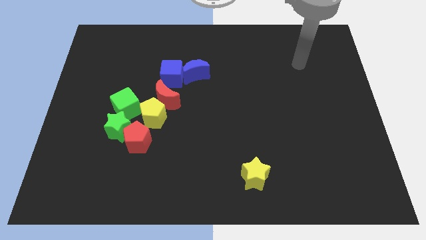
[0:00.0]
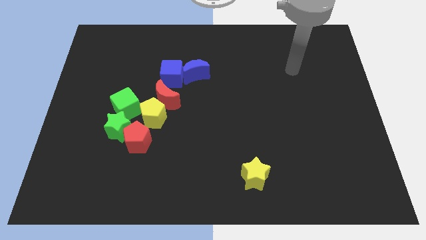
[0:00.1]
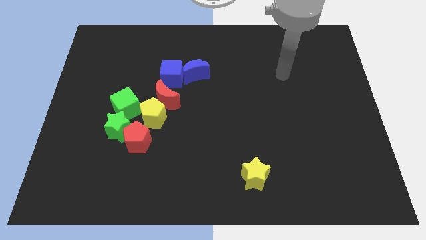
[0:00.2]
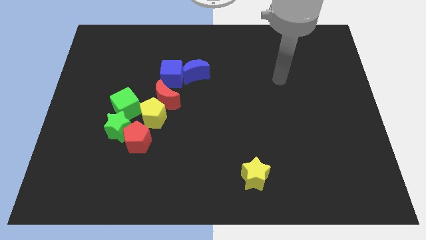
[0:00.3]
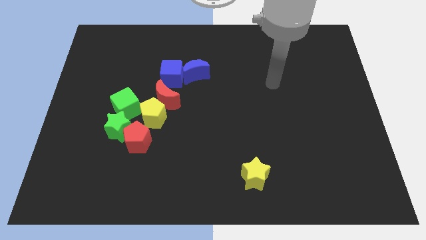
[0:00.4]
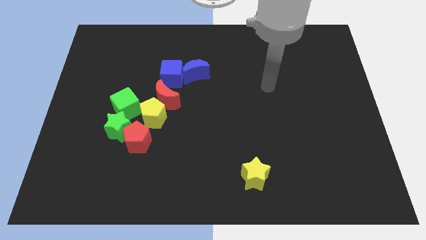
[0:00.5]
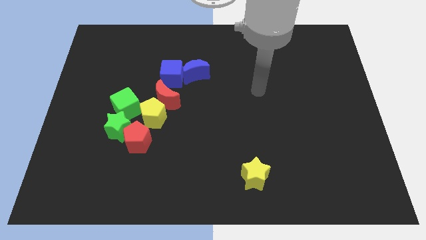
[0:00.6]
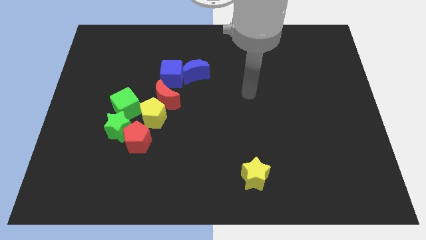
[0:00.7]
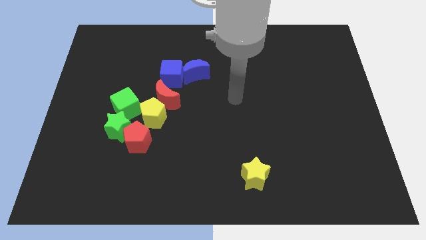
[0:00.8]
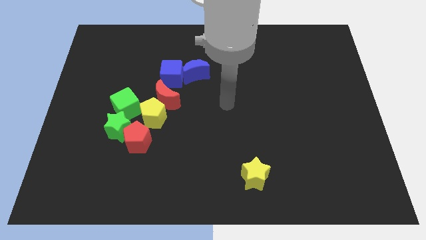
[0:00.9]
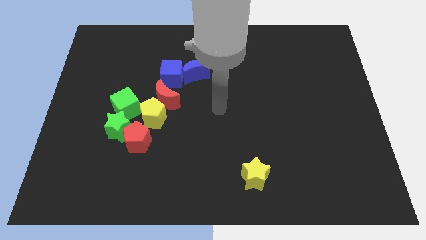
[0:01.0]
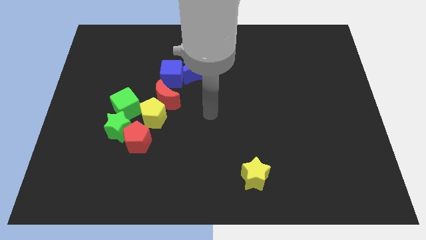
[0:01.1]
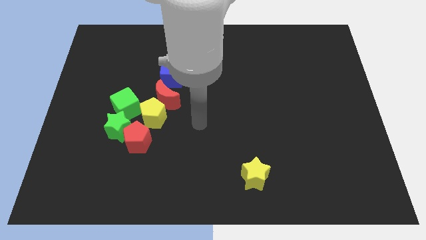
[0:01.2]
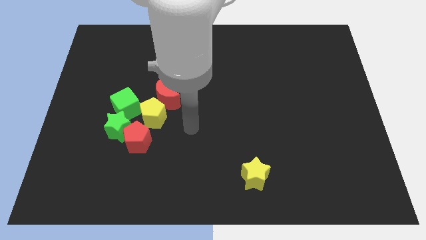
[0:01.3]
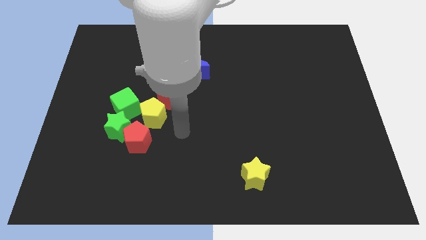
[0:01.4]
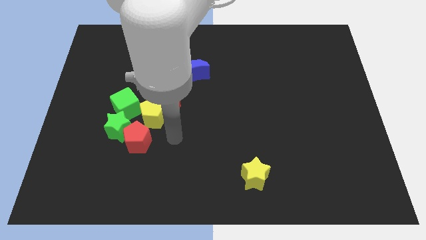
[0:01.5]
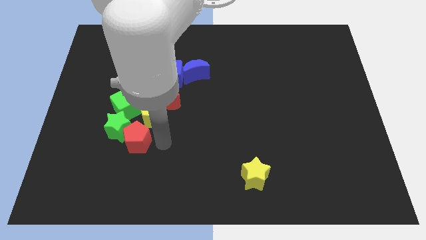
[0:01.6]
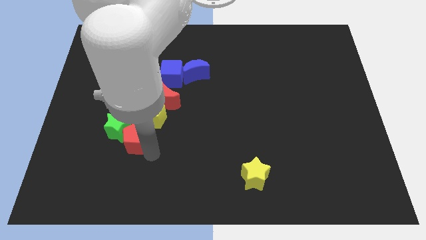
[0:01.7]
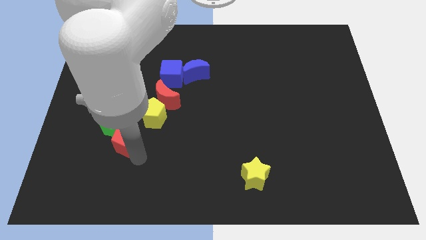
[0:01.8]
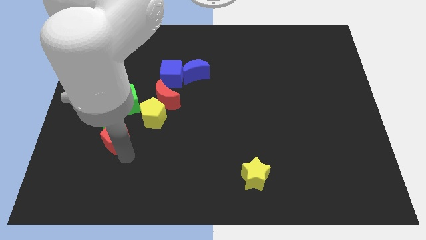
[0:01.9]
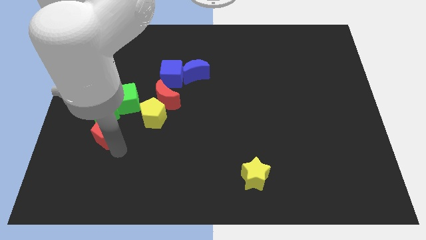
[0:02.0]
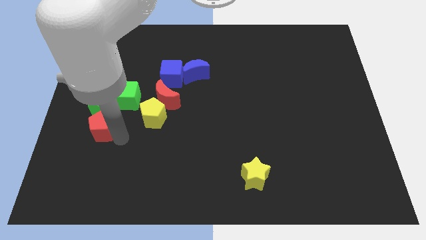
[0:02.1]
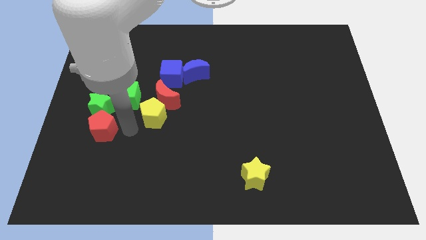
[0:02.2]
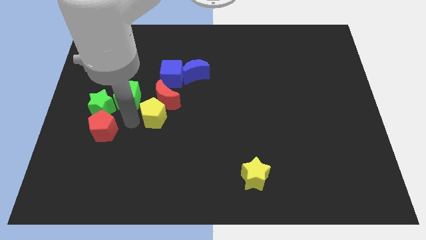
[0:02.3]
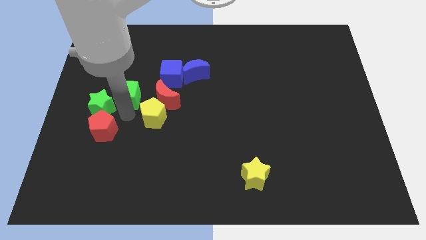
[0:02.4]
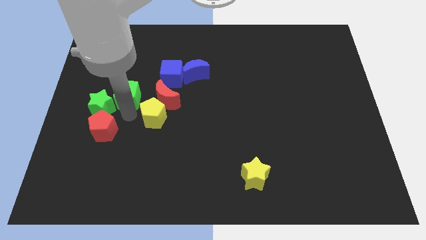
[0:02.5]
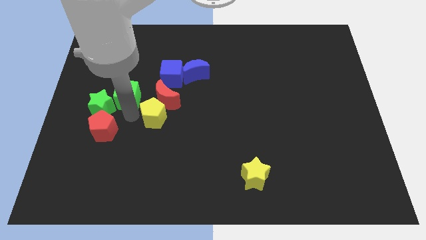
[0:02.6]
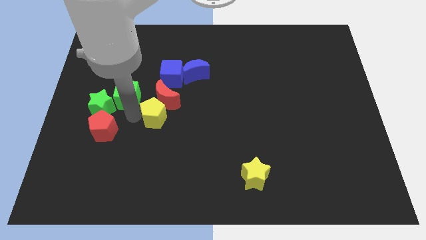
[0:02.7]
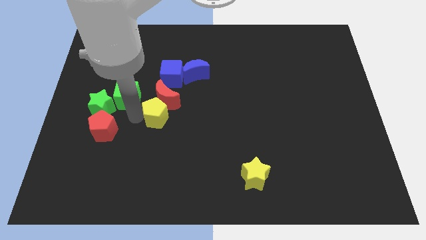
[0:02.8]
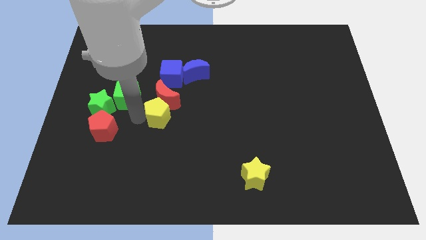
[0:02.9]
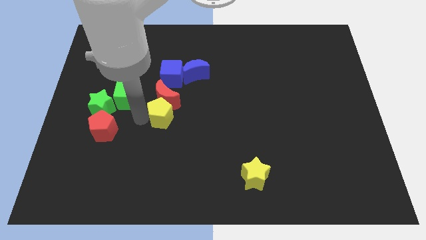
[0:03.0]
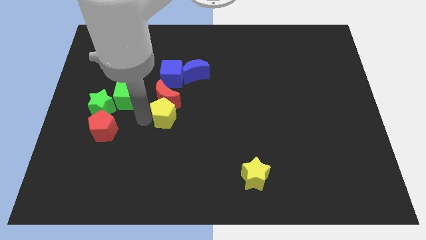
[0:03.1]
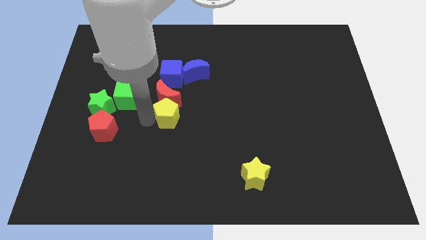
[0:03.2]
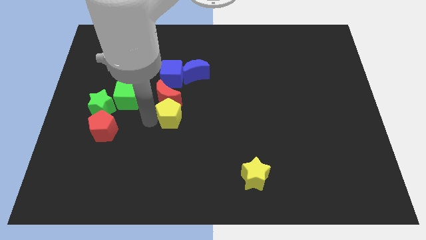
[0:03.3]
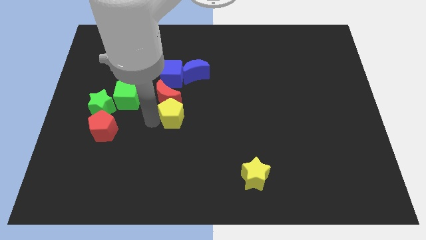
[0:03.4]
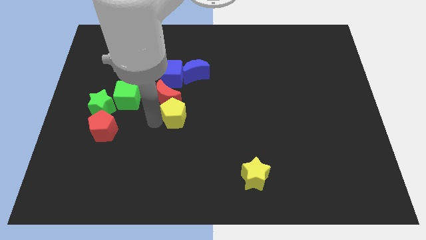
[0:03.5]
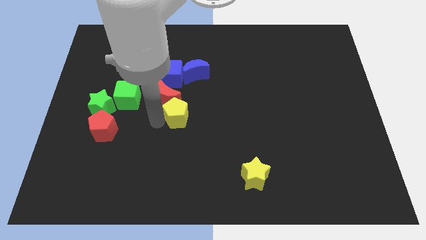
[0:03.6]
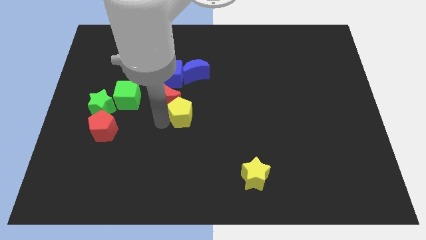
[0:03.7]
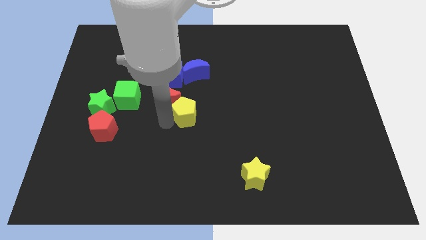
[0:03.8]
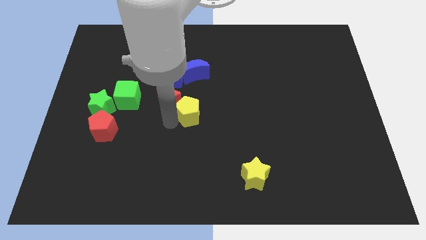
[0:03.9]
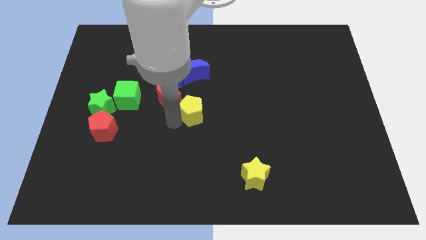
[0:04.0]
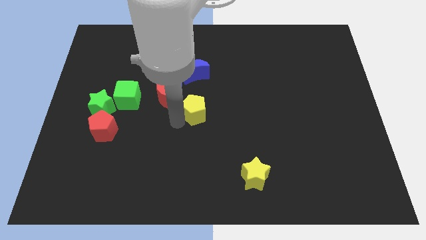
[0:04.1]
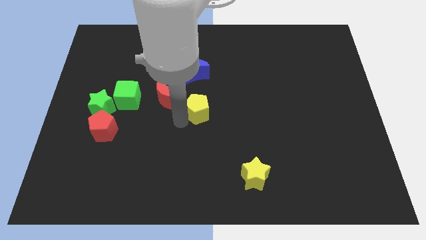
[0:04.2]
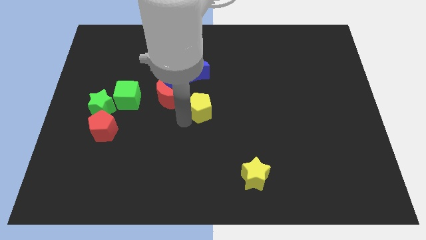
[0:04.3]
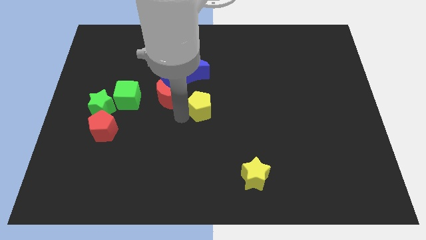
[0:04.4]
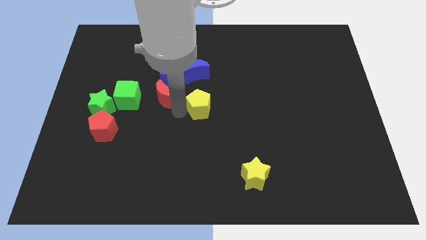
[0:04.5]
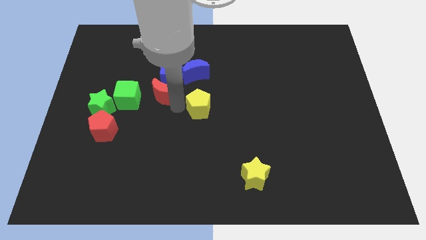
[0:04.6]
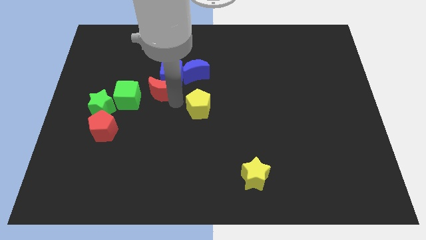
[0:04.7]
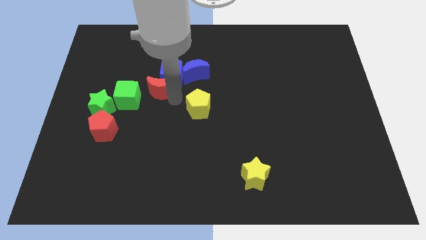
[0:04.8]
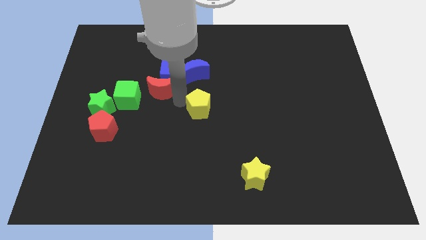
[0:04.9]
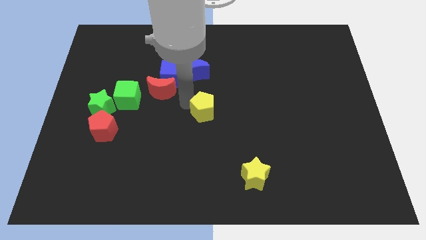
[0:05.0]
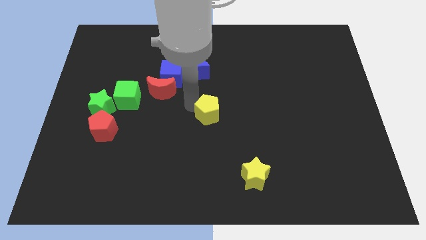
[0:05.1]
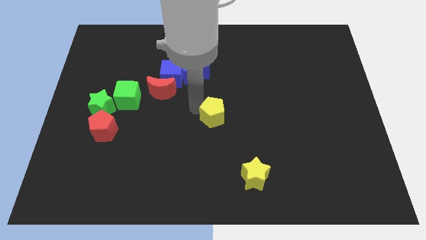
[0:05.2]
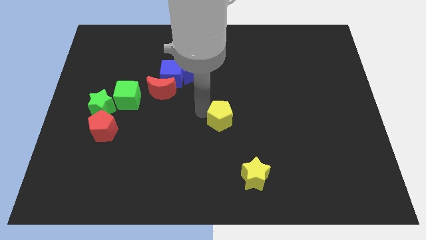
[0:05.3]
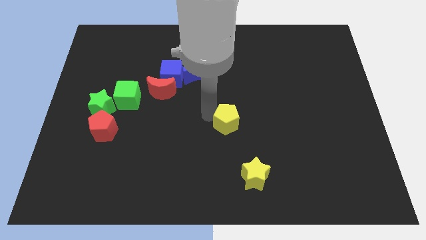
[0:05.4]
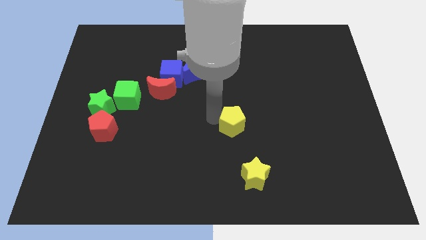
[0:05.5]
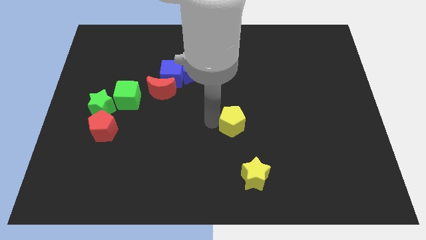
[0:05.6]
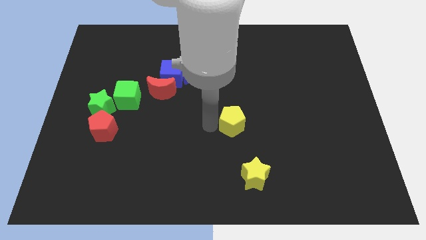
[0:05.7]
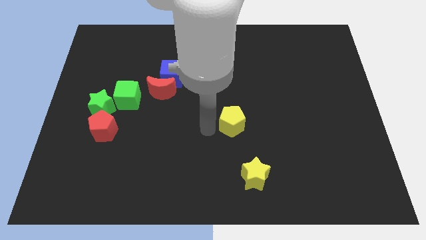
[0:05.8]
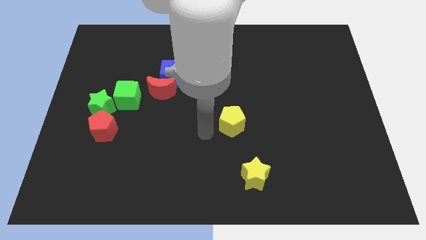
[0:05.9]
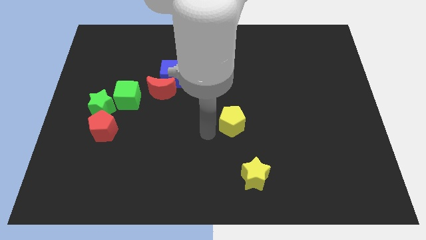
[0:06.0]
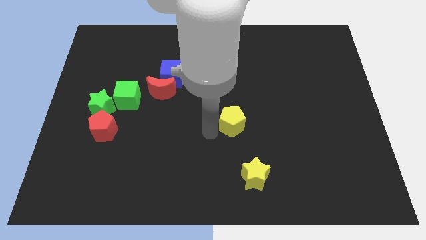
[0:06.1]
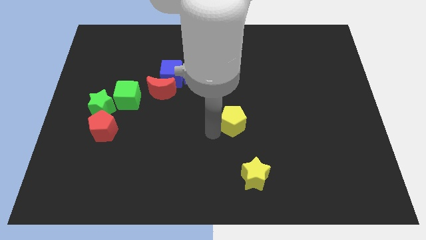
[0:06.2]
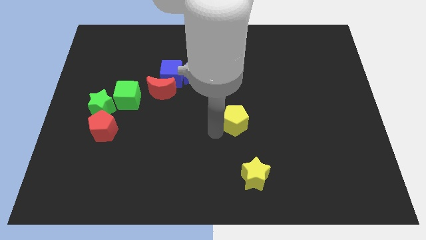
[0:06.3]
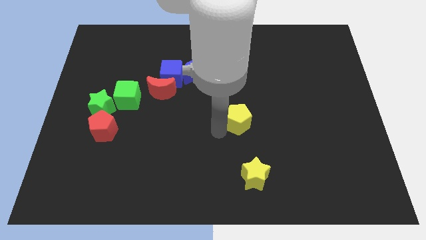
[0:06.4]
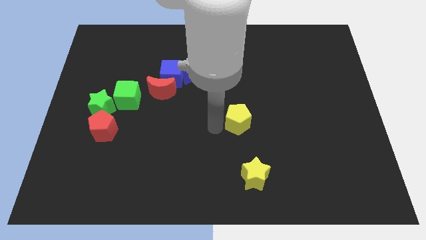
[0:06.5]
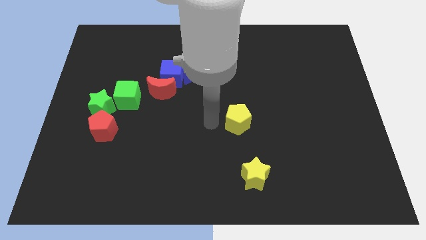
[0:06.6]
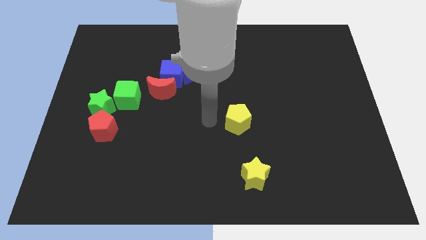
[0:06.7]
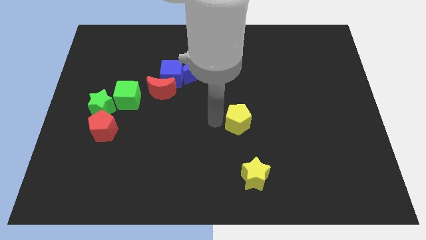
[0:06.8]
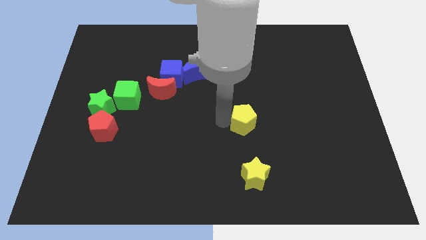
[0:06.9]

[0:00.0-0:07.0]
slide the yellow pentagon to the right

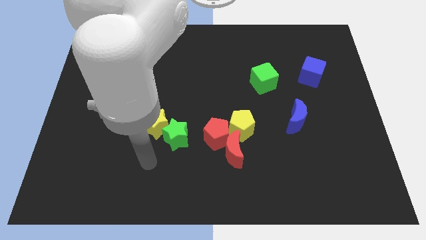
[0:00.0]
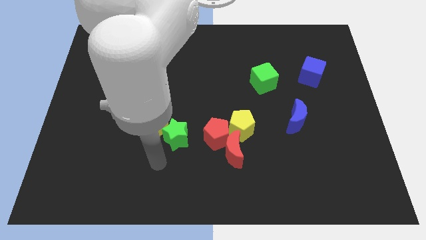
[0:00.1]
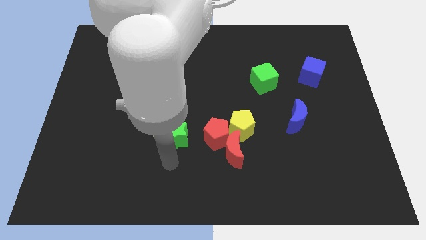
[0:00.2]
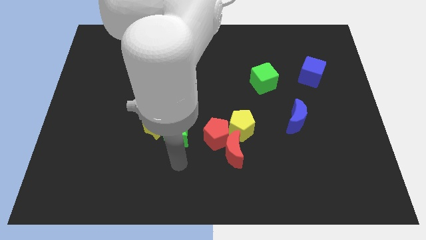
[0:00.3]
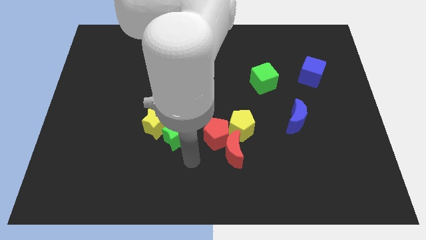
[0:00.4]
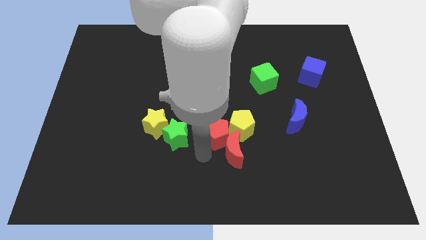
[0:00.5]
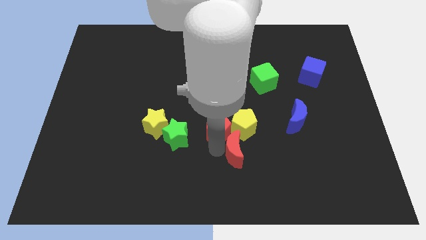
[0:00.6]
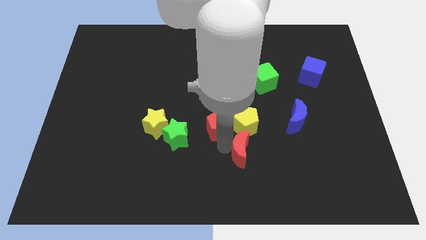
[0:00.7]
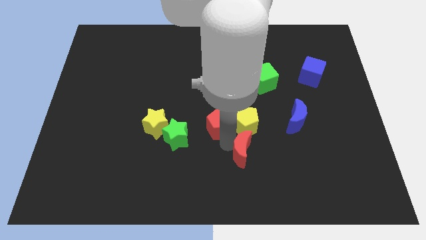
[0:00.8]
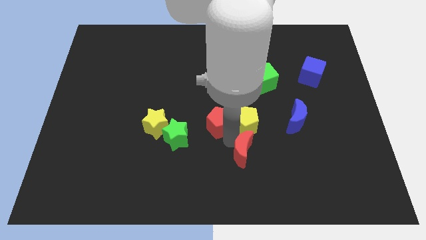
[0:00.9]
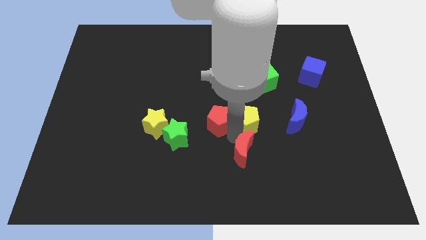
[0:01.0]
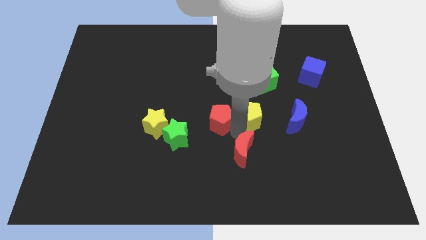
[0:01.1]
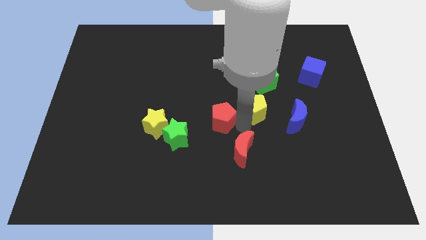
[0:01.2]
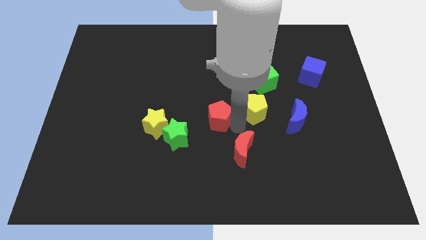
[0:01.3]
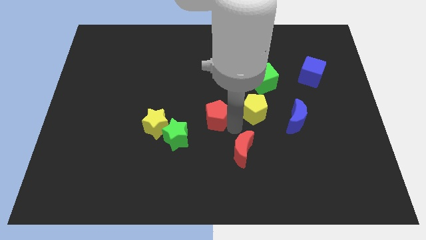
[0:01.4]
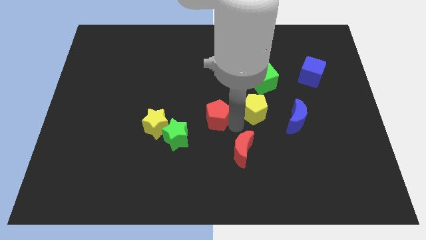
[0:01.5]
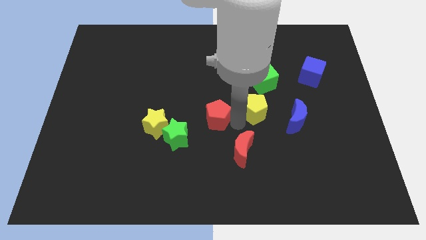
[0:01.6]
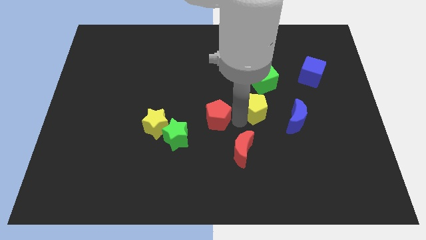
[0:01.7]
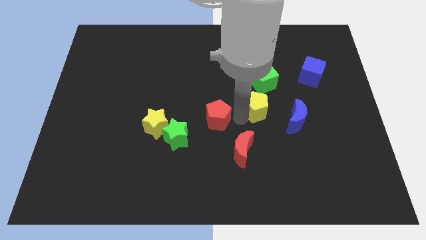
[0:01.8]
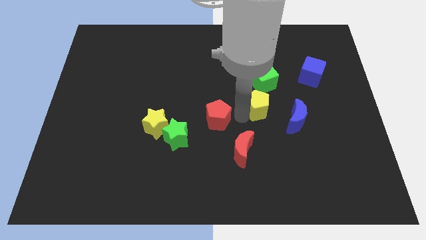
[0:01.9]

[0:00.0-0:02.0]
slightly slide the yellow pentagon diagonally up and to the right
